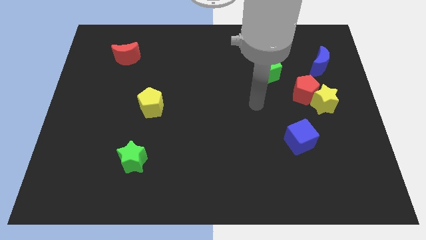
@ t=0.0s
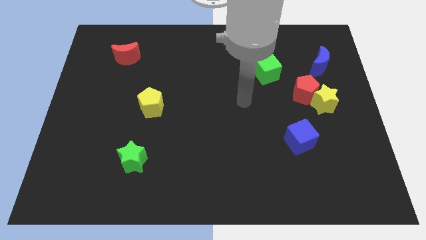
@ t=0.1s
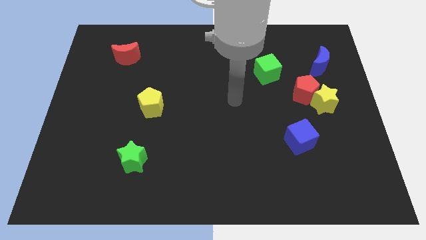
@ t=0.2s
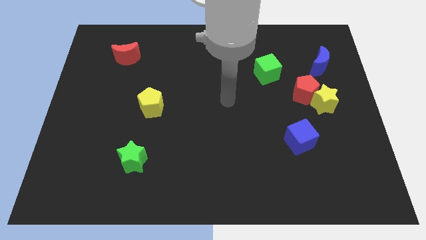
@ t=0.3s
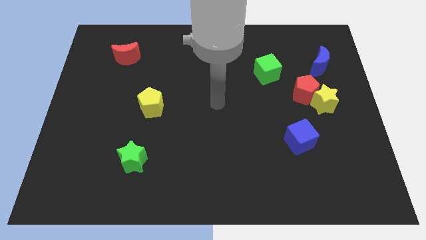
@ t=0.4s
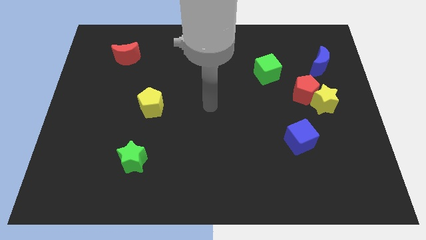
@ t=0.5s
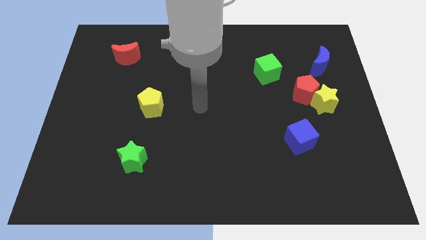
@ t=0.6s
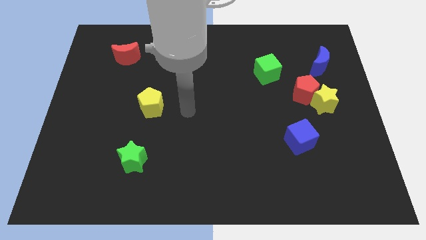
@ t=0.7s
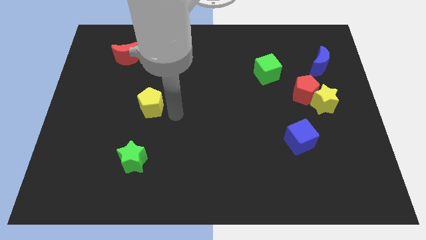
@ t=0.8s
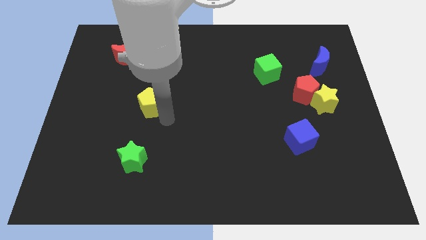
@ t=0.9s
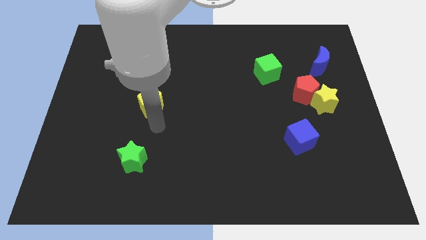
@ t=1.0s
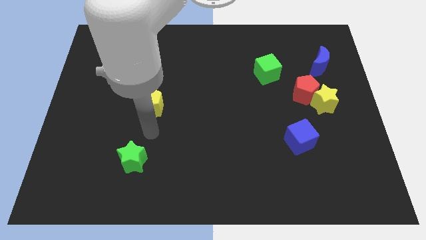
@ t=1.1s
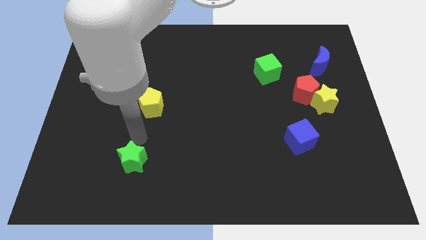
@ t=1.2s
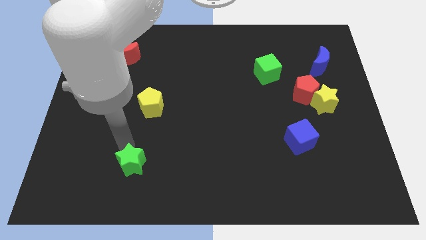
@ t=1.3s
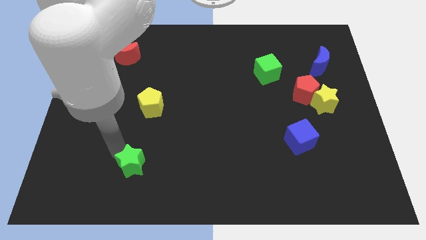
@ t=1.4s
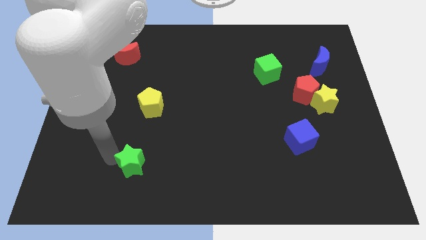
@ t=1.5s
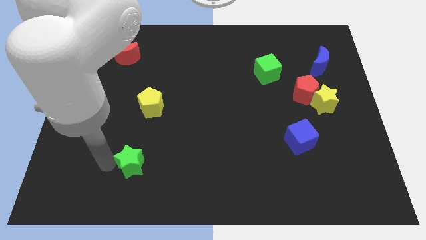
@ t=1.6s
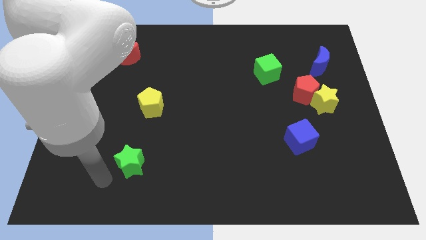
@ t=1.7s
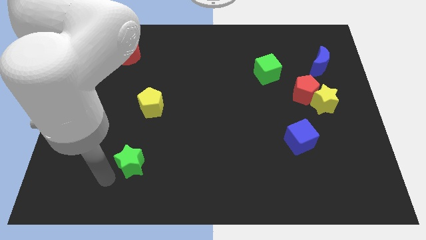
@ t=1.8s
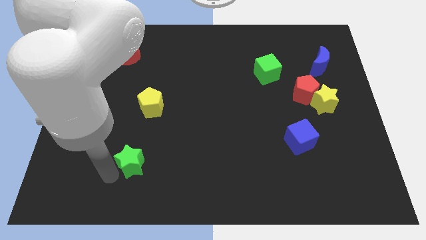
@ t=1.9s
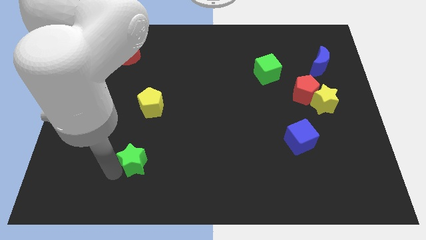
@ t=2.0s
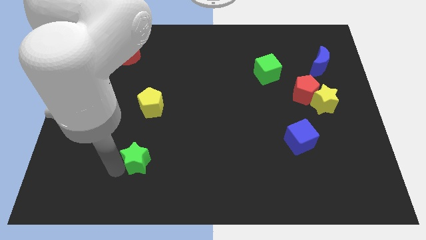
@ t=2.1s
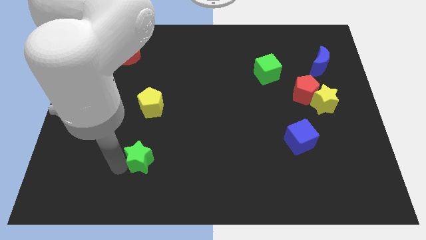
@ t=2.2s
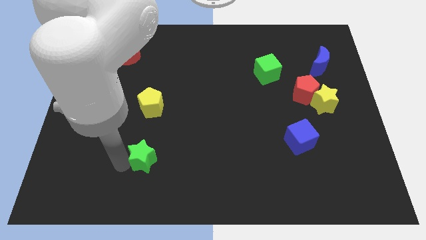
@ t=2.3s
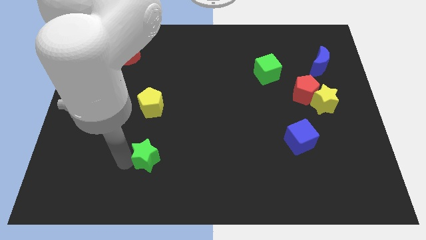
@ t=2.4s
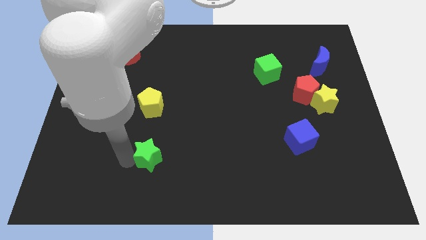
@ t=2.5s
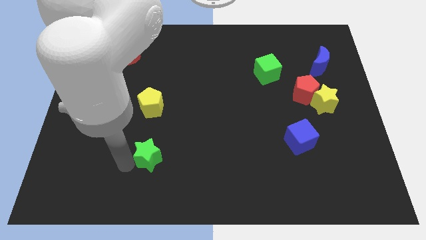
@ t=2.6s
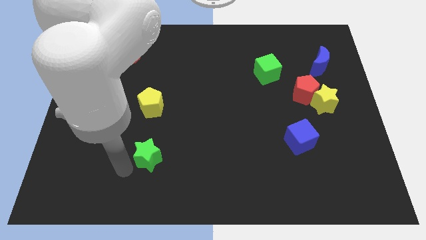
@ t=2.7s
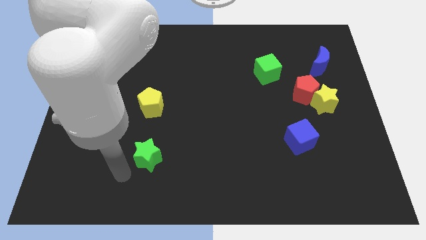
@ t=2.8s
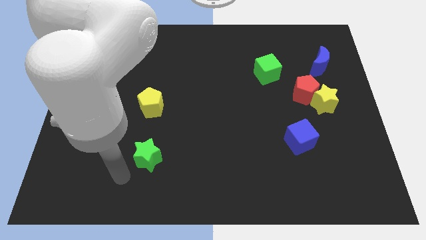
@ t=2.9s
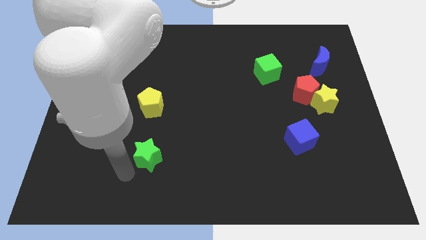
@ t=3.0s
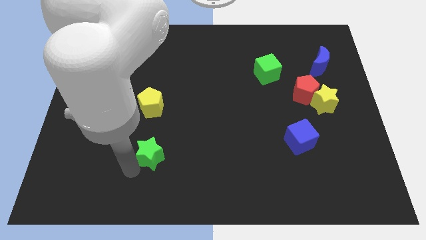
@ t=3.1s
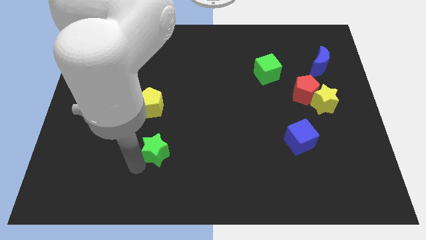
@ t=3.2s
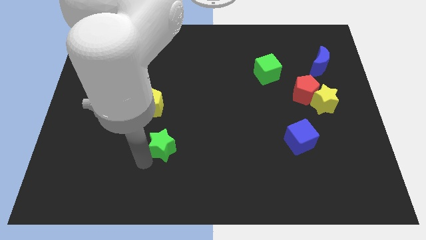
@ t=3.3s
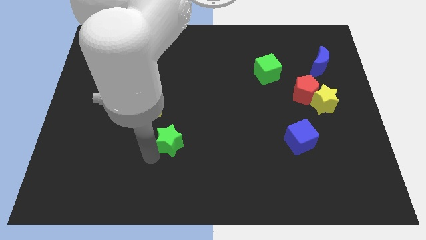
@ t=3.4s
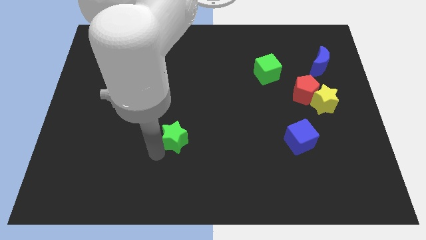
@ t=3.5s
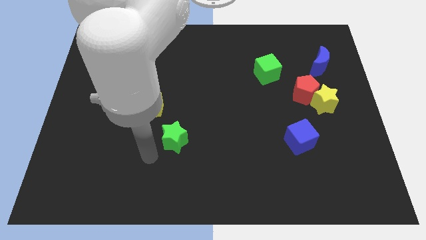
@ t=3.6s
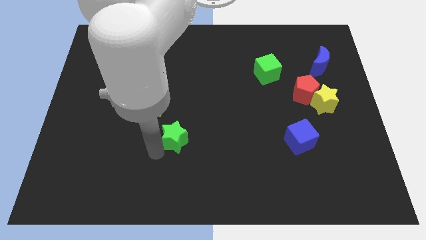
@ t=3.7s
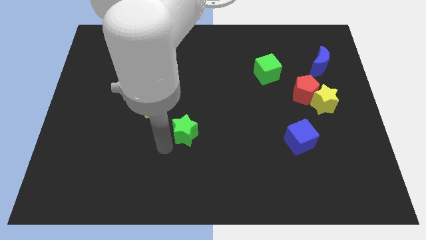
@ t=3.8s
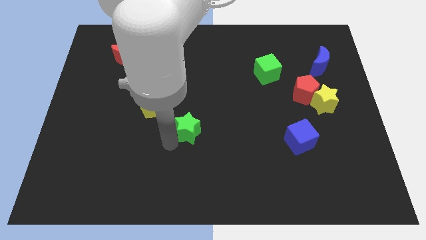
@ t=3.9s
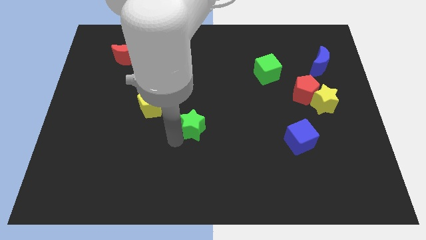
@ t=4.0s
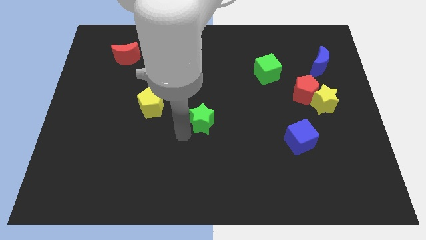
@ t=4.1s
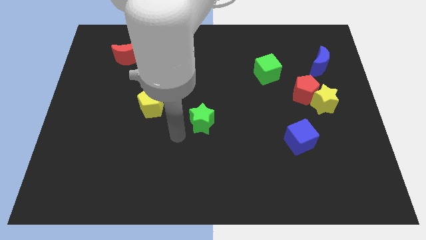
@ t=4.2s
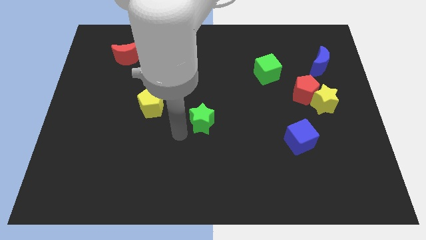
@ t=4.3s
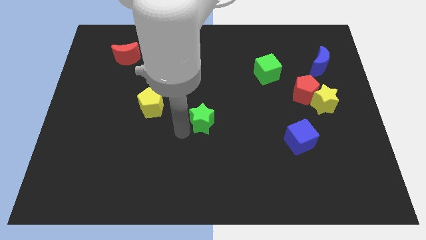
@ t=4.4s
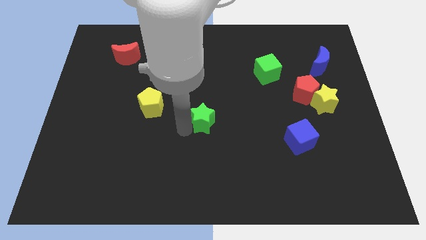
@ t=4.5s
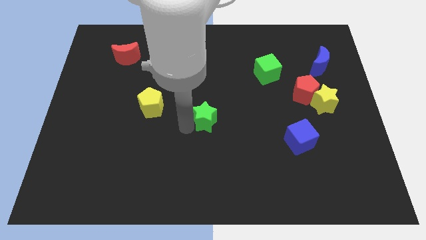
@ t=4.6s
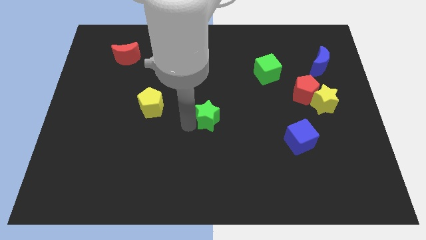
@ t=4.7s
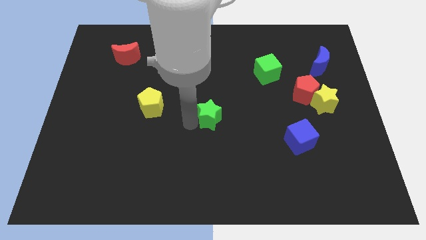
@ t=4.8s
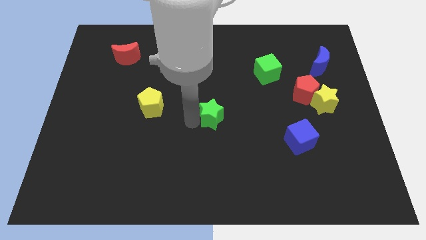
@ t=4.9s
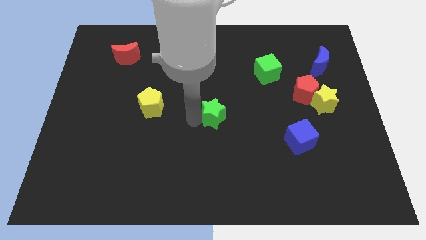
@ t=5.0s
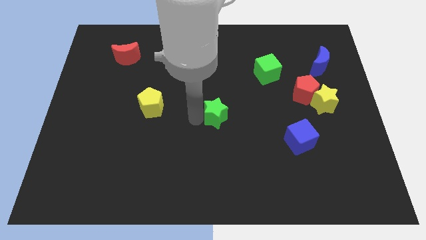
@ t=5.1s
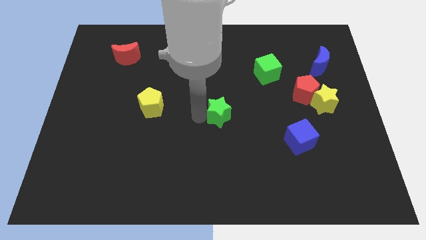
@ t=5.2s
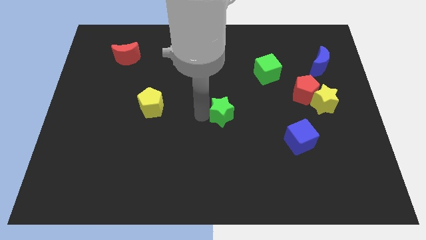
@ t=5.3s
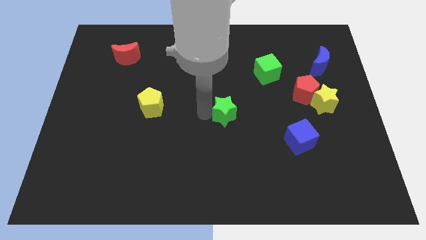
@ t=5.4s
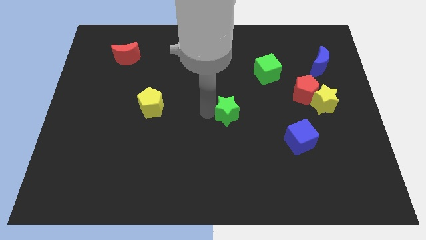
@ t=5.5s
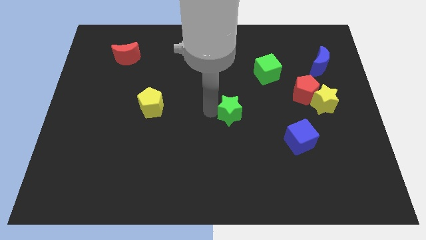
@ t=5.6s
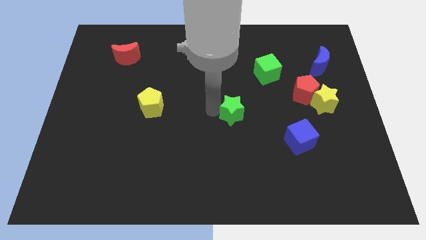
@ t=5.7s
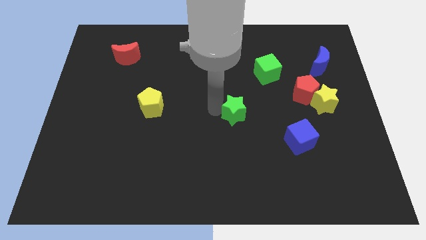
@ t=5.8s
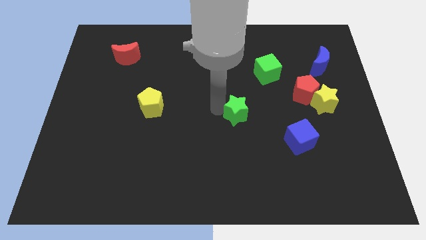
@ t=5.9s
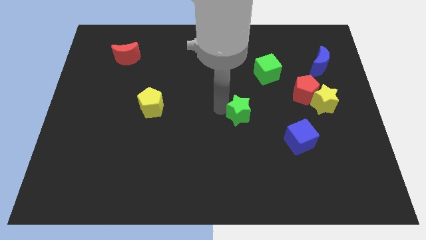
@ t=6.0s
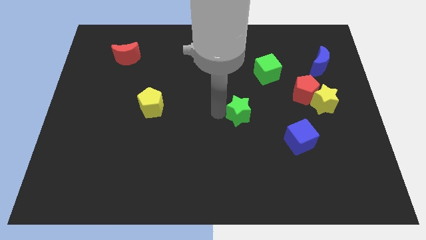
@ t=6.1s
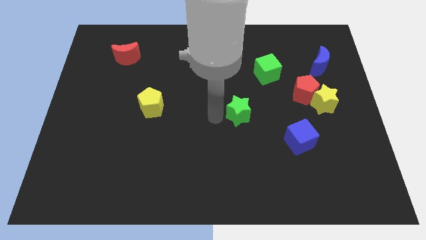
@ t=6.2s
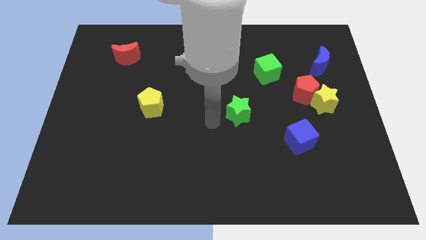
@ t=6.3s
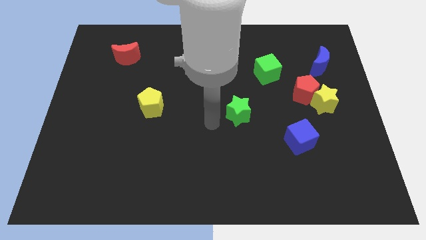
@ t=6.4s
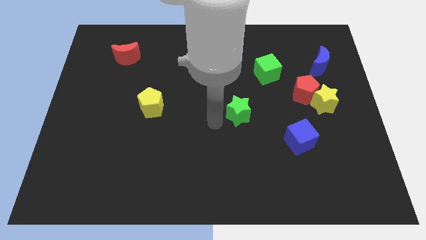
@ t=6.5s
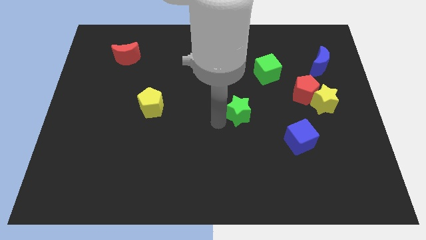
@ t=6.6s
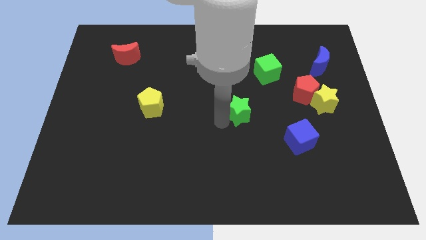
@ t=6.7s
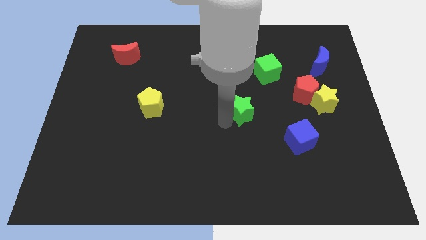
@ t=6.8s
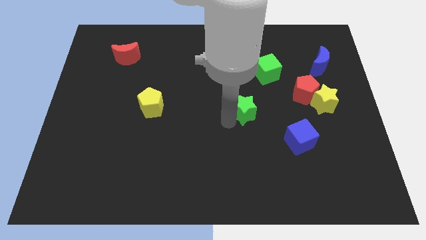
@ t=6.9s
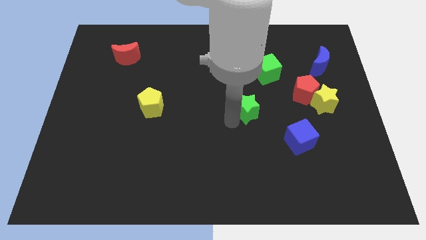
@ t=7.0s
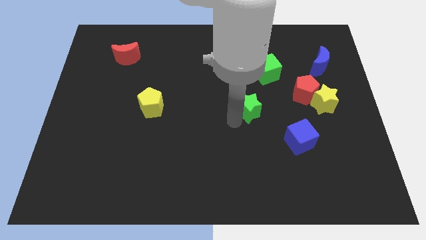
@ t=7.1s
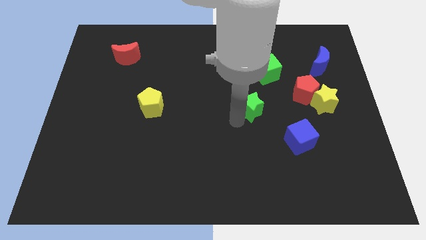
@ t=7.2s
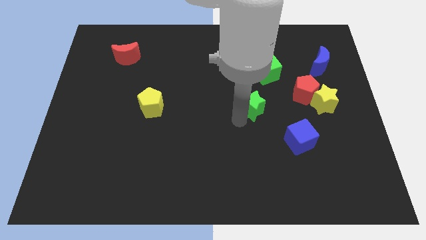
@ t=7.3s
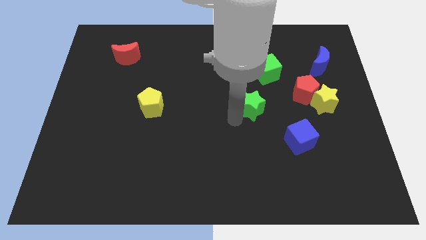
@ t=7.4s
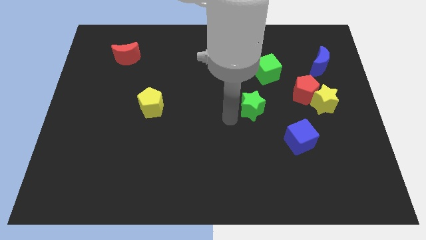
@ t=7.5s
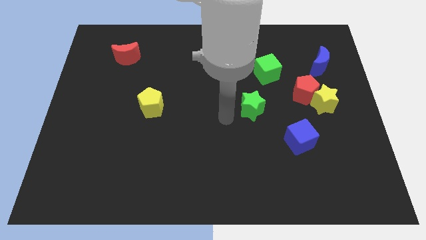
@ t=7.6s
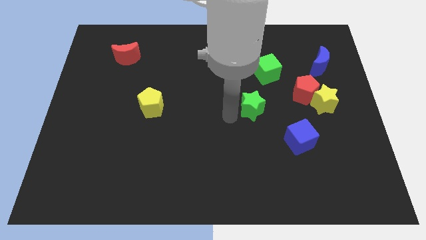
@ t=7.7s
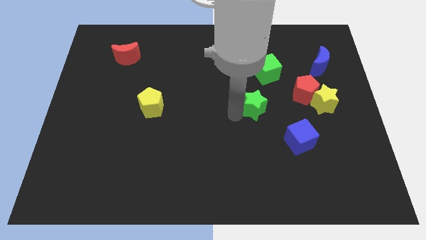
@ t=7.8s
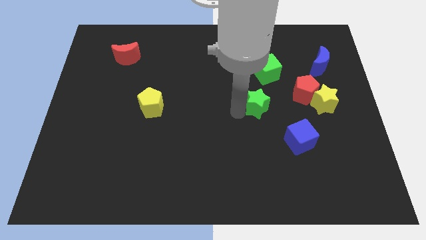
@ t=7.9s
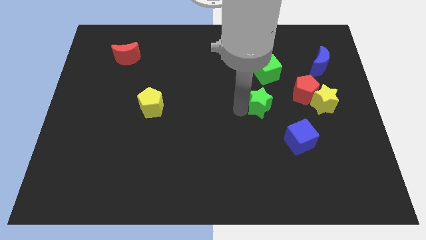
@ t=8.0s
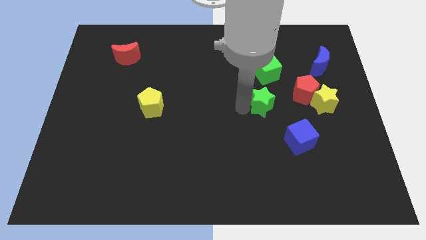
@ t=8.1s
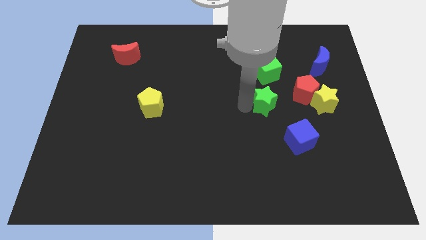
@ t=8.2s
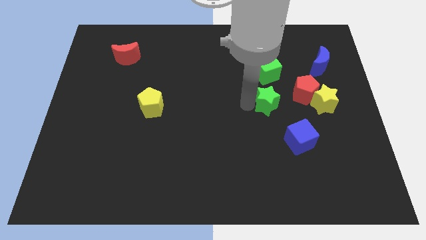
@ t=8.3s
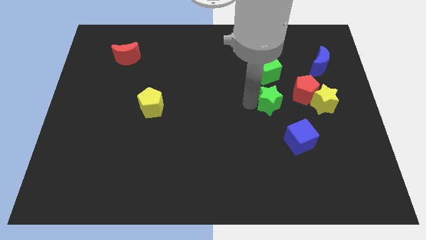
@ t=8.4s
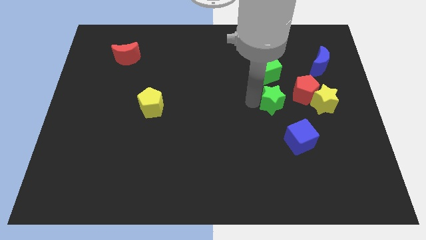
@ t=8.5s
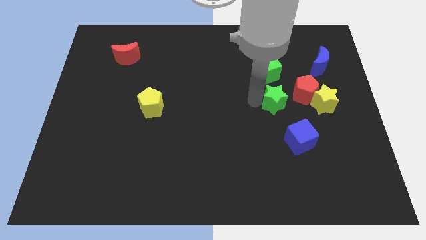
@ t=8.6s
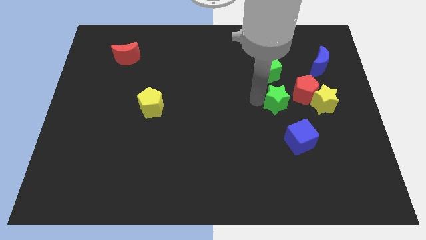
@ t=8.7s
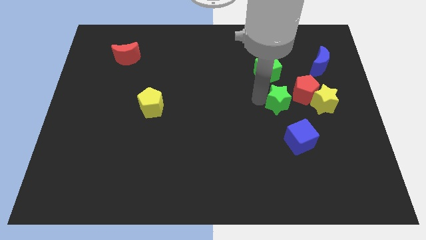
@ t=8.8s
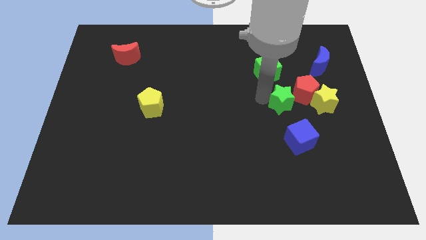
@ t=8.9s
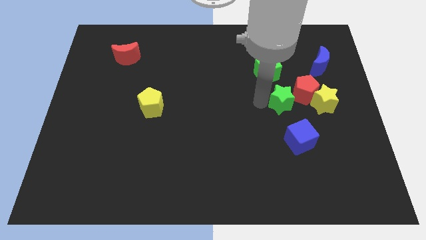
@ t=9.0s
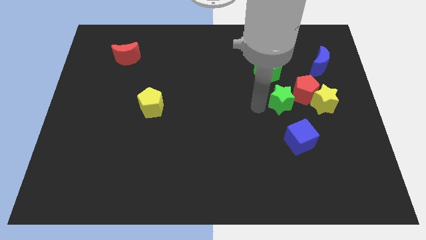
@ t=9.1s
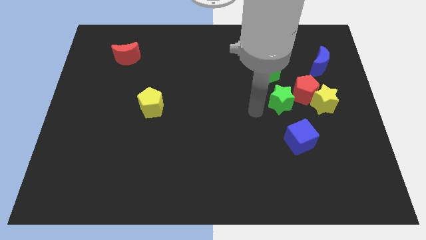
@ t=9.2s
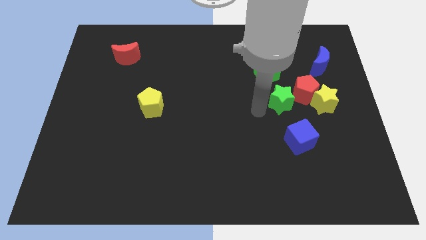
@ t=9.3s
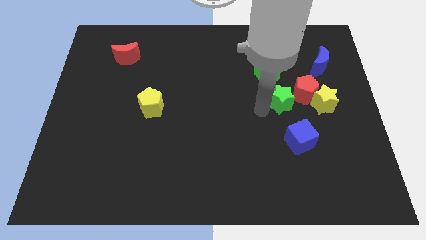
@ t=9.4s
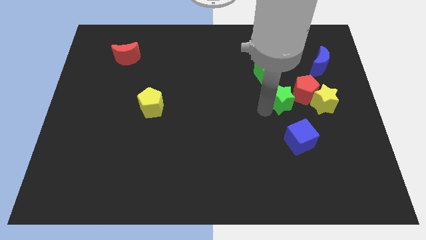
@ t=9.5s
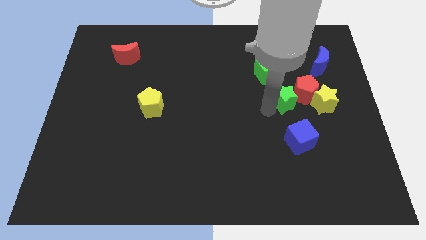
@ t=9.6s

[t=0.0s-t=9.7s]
push the green star towards the red pentagon
